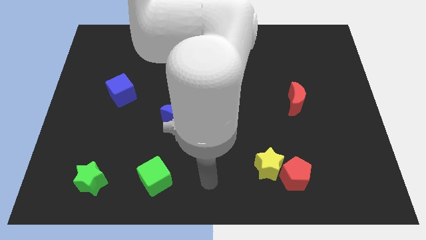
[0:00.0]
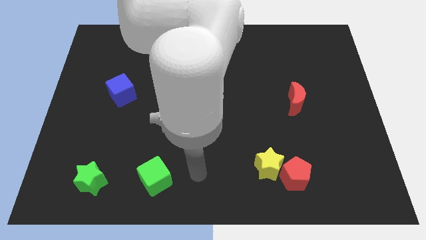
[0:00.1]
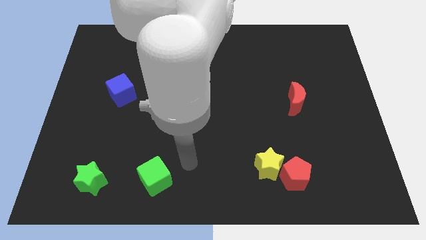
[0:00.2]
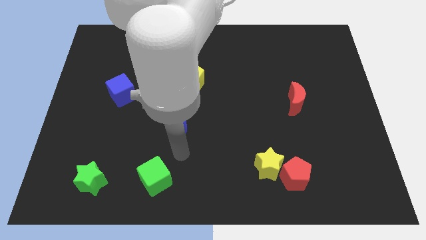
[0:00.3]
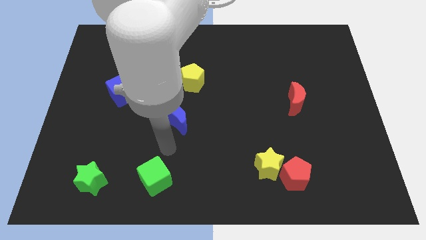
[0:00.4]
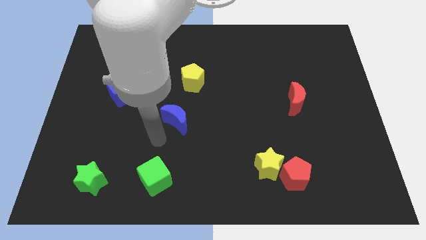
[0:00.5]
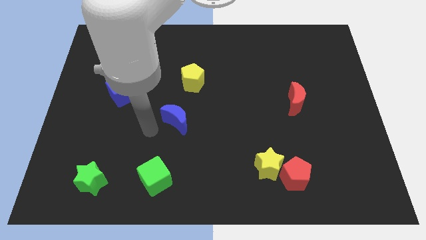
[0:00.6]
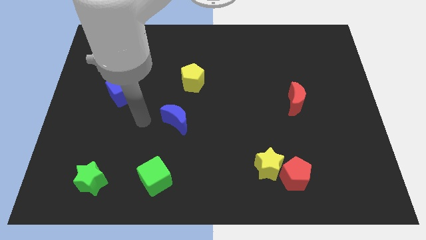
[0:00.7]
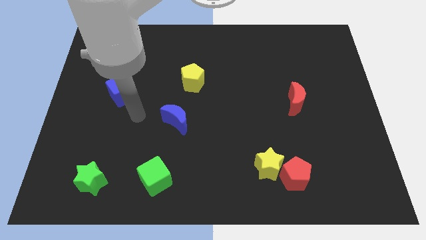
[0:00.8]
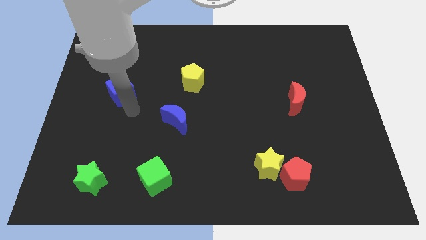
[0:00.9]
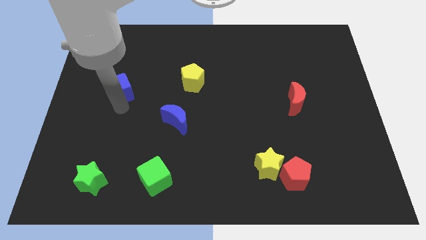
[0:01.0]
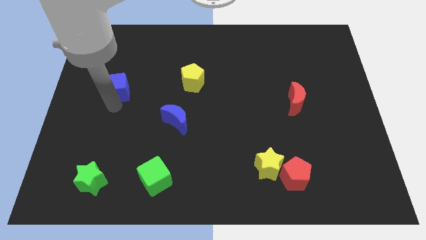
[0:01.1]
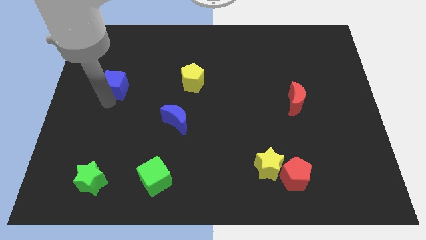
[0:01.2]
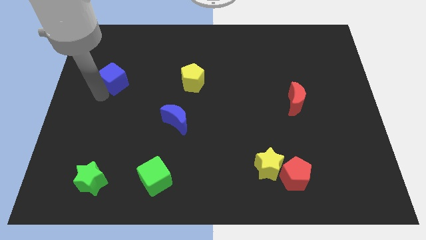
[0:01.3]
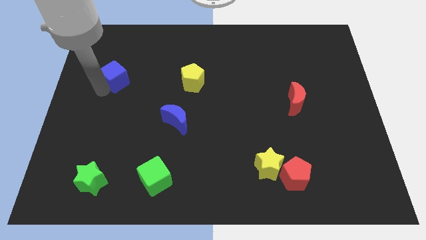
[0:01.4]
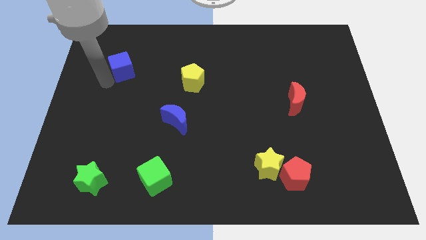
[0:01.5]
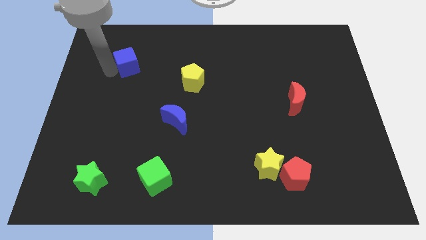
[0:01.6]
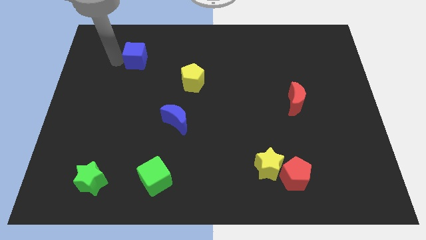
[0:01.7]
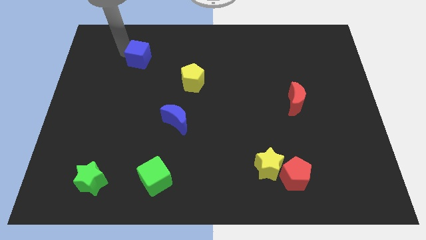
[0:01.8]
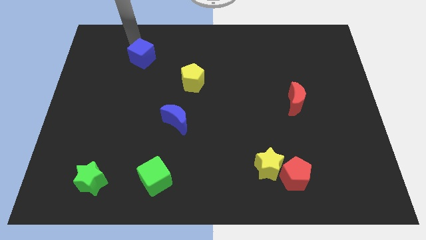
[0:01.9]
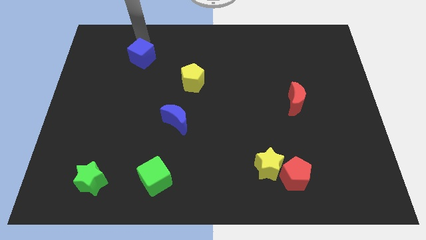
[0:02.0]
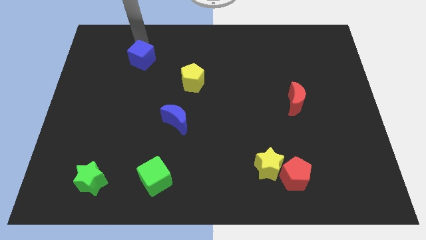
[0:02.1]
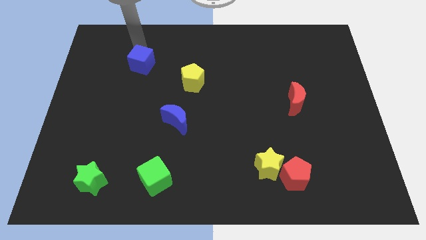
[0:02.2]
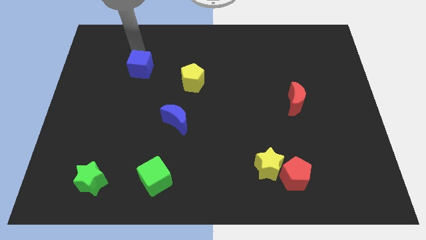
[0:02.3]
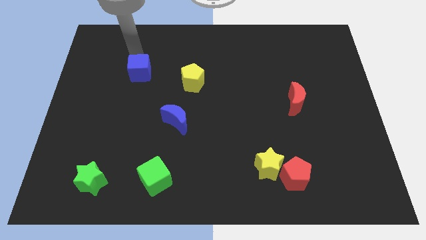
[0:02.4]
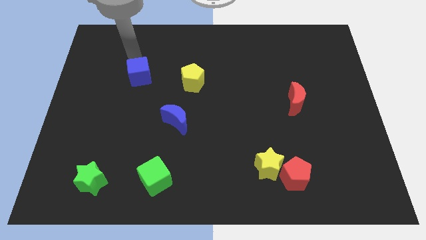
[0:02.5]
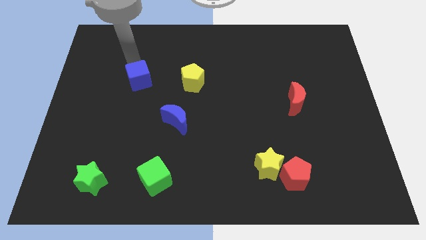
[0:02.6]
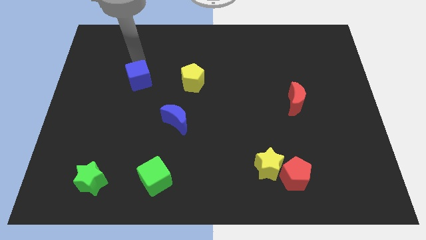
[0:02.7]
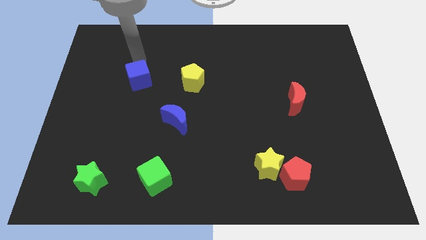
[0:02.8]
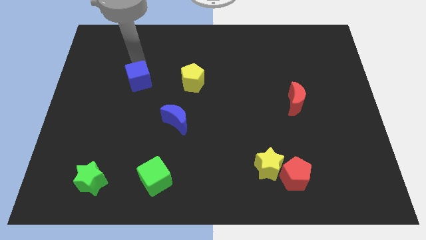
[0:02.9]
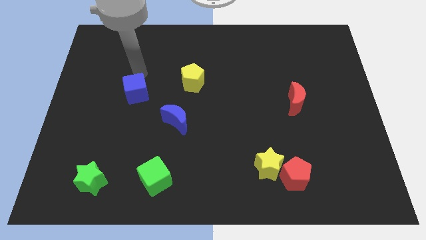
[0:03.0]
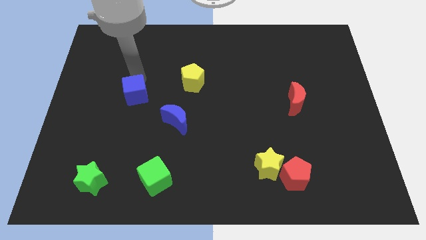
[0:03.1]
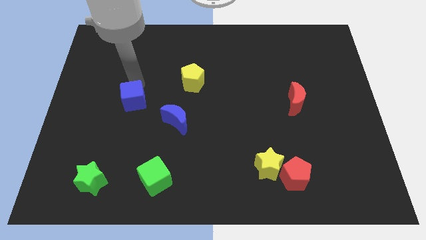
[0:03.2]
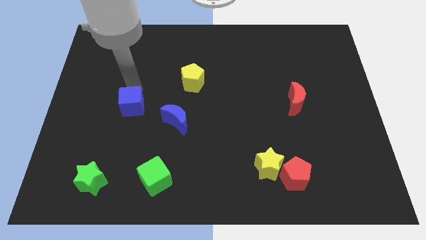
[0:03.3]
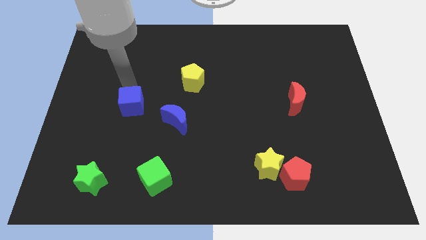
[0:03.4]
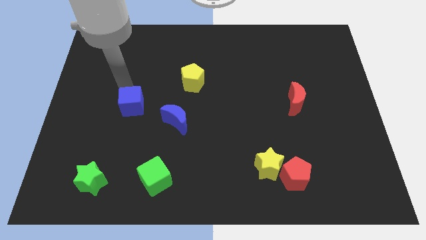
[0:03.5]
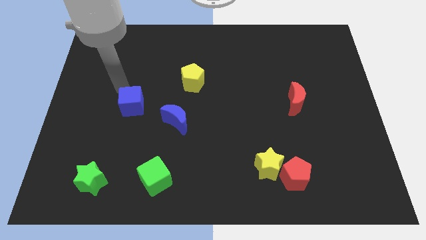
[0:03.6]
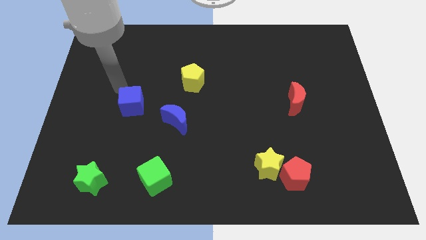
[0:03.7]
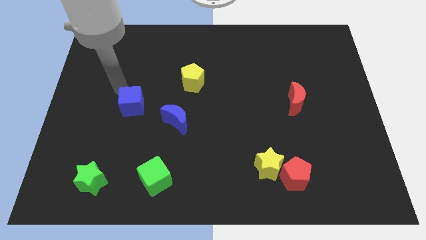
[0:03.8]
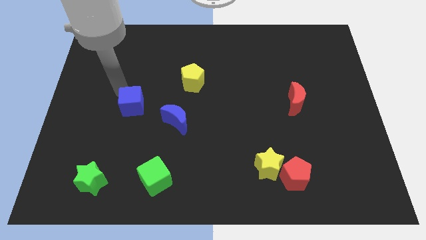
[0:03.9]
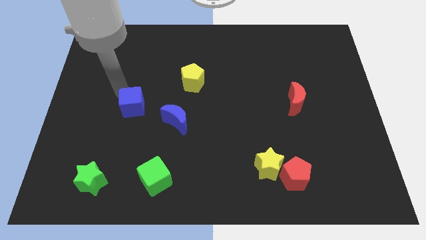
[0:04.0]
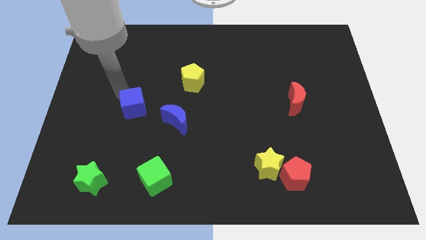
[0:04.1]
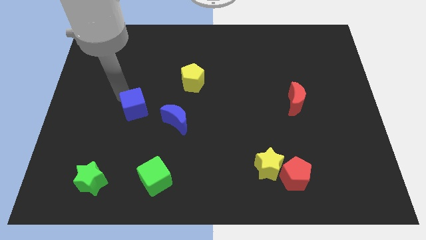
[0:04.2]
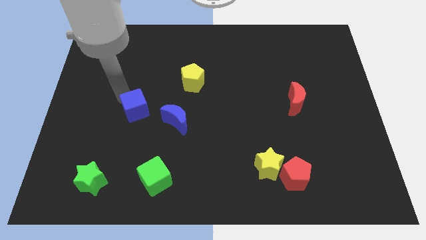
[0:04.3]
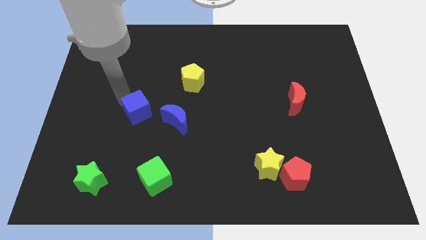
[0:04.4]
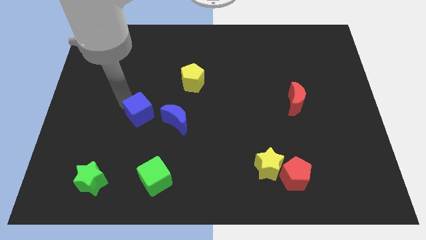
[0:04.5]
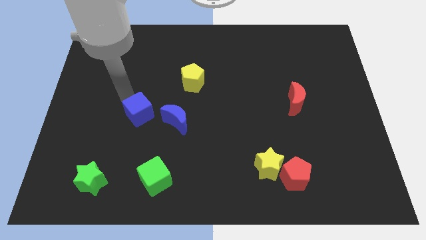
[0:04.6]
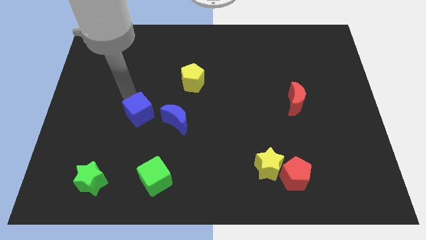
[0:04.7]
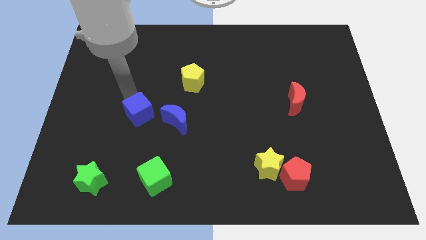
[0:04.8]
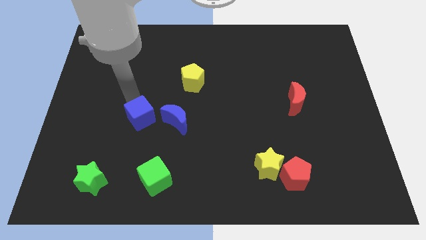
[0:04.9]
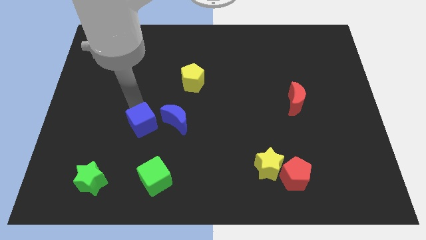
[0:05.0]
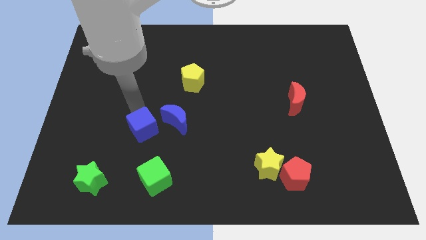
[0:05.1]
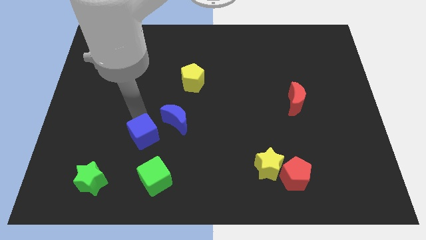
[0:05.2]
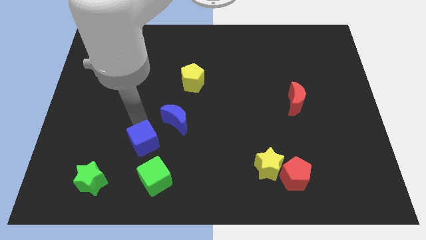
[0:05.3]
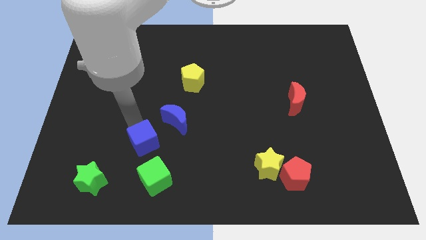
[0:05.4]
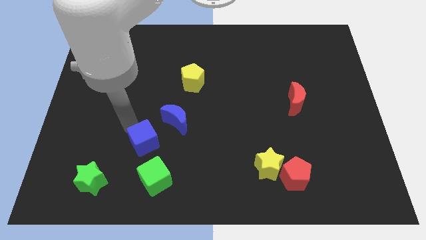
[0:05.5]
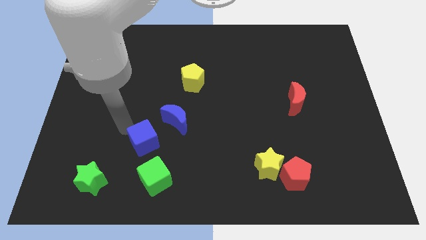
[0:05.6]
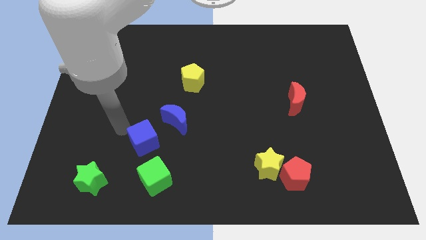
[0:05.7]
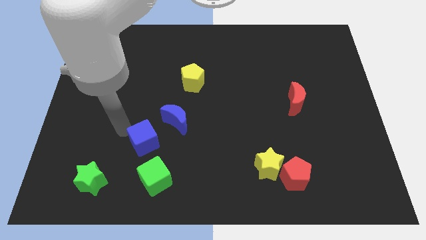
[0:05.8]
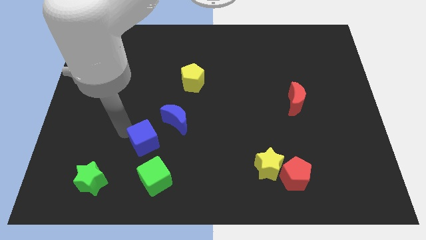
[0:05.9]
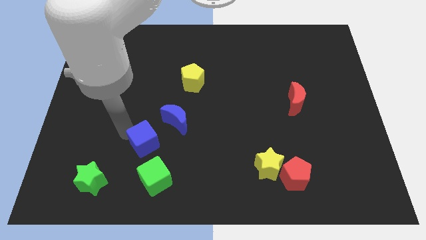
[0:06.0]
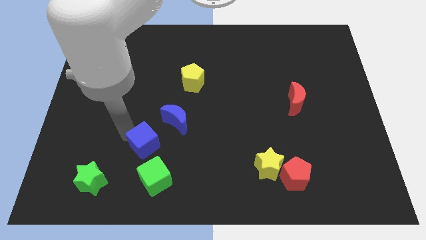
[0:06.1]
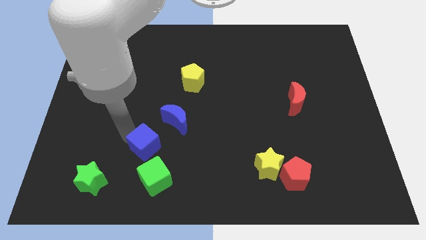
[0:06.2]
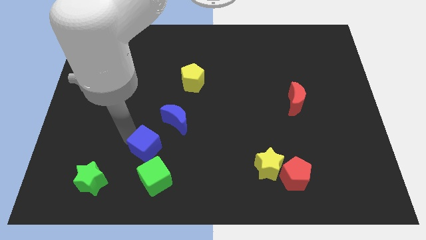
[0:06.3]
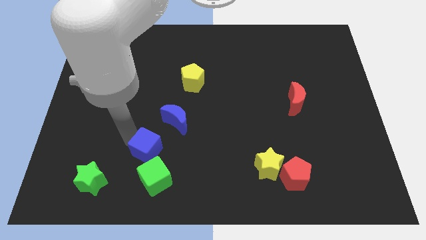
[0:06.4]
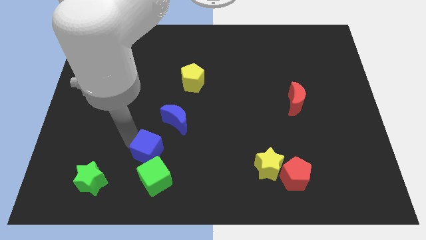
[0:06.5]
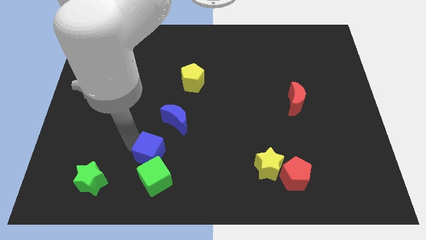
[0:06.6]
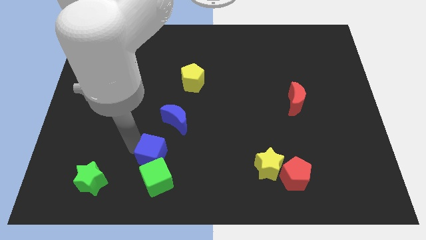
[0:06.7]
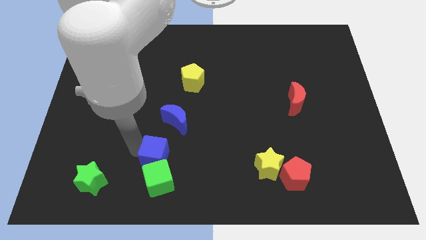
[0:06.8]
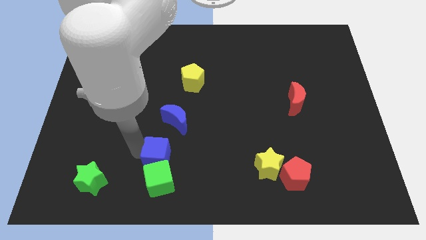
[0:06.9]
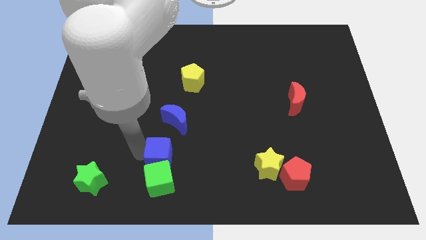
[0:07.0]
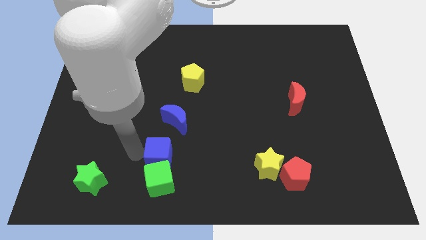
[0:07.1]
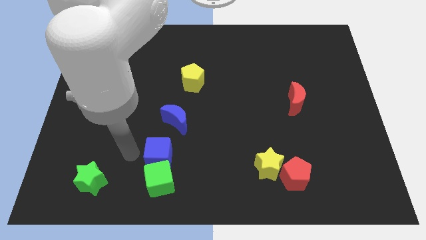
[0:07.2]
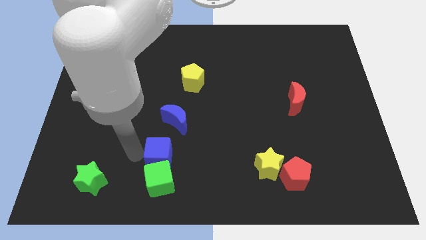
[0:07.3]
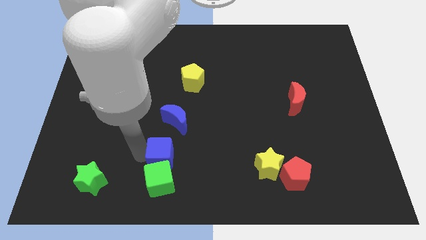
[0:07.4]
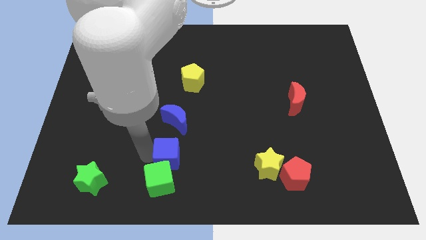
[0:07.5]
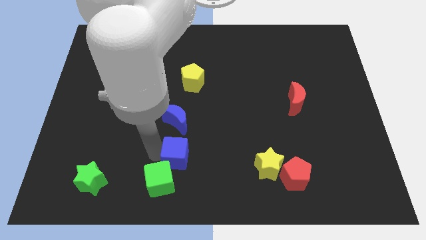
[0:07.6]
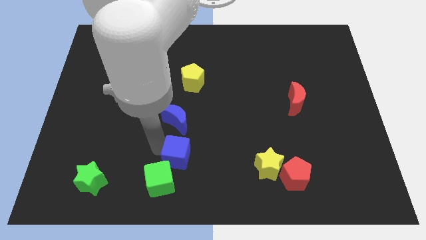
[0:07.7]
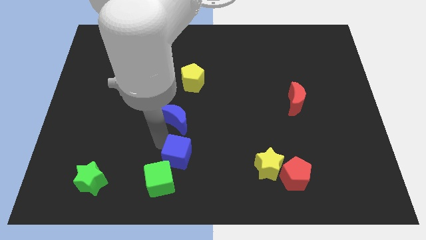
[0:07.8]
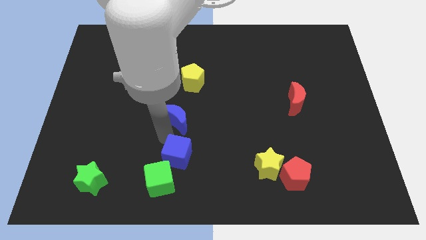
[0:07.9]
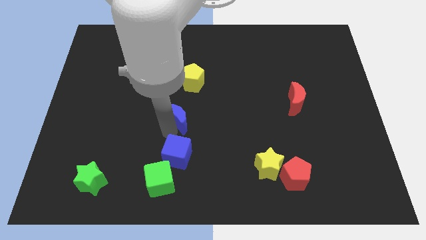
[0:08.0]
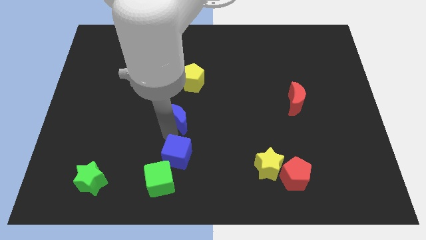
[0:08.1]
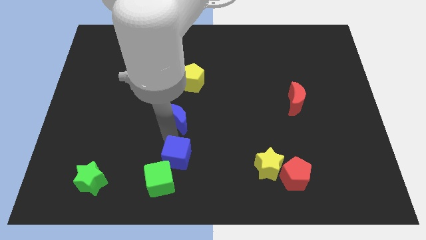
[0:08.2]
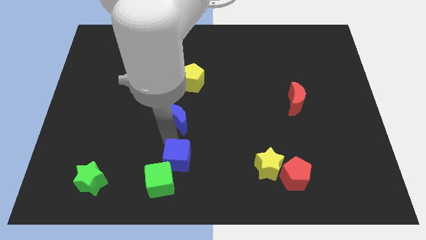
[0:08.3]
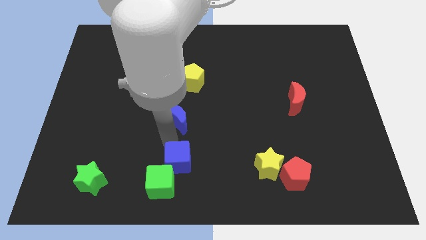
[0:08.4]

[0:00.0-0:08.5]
put the blue cube to the bottom
